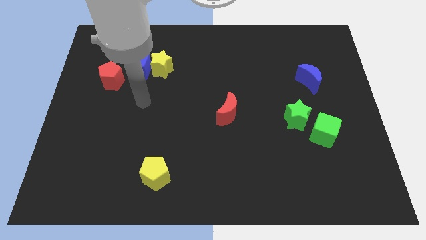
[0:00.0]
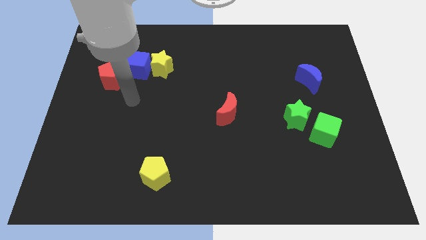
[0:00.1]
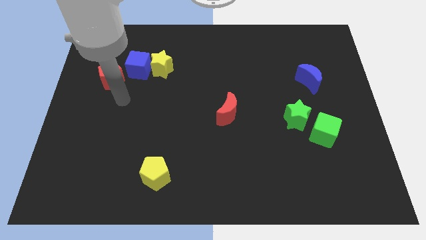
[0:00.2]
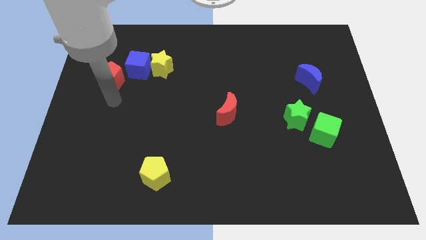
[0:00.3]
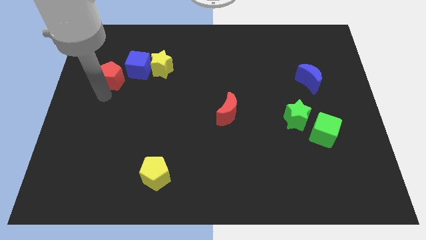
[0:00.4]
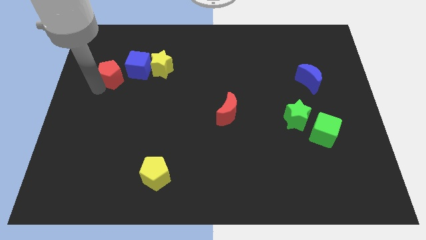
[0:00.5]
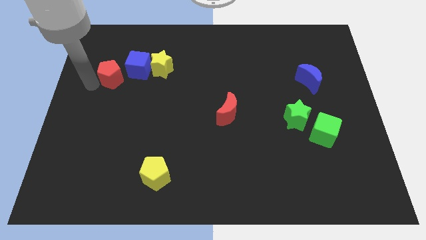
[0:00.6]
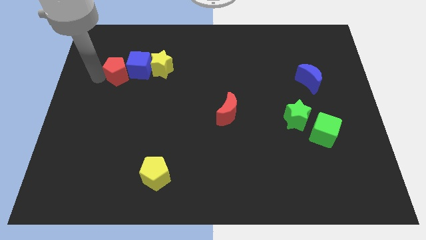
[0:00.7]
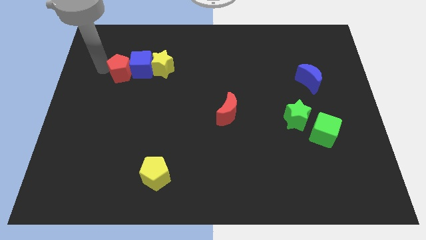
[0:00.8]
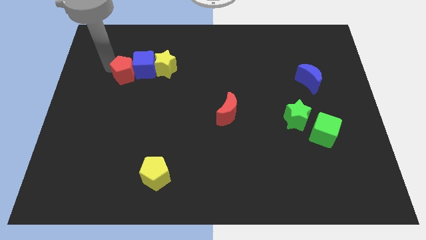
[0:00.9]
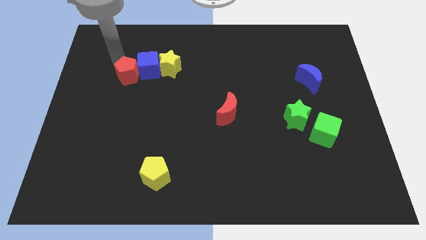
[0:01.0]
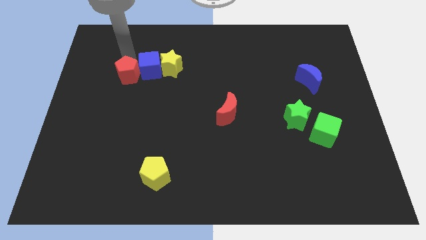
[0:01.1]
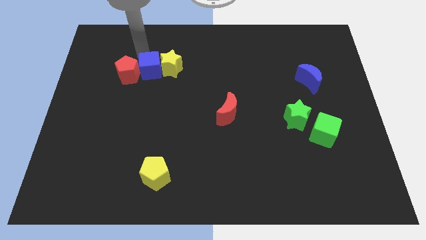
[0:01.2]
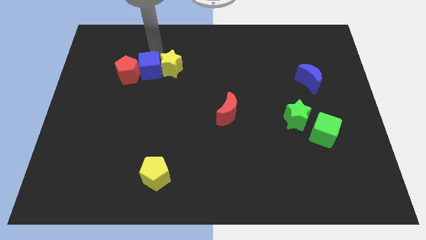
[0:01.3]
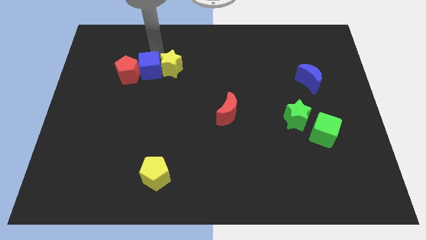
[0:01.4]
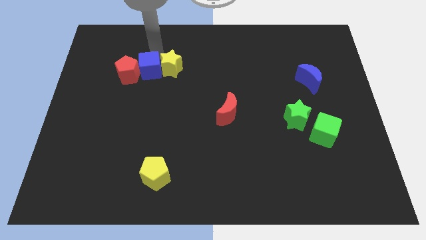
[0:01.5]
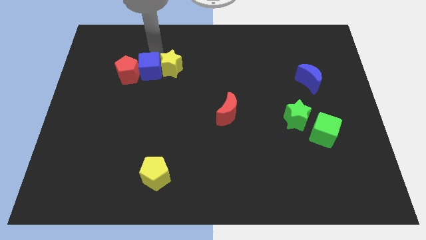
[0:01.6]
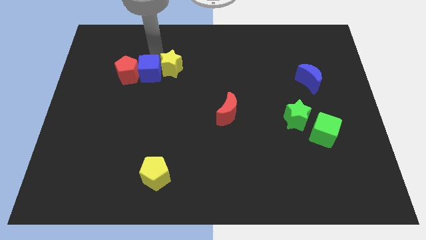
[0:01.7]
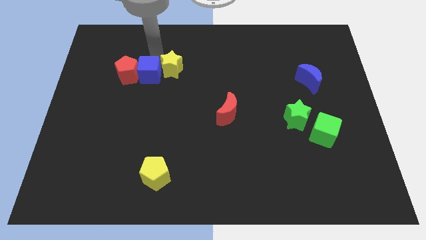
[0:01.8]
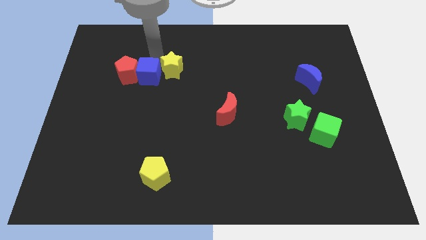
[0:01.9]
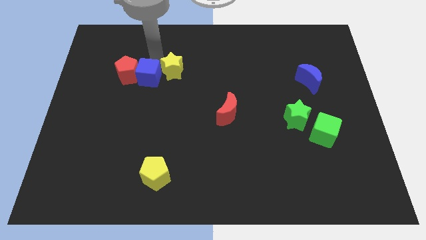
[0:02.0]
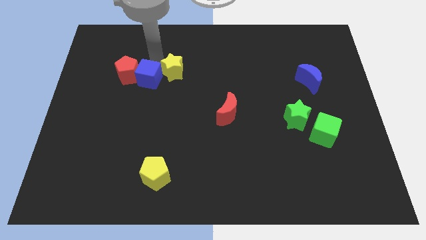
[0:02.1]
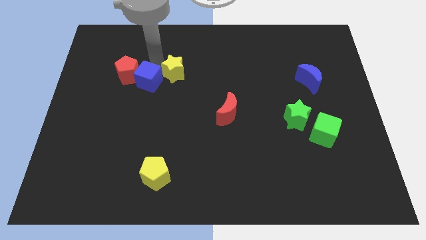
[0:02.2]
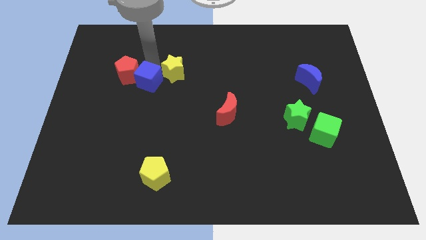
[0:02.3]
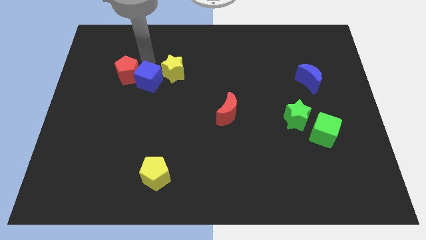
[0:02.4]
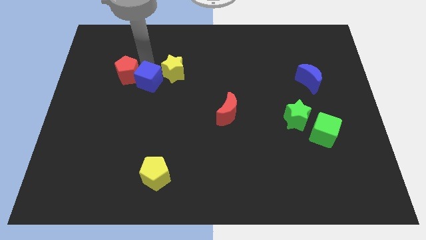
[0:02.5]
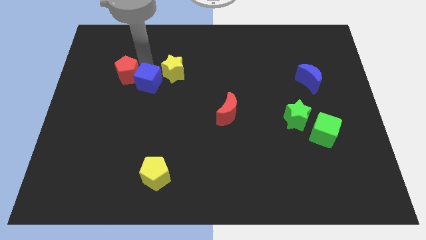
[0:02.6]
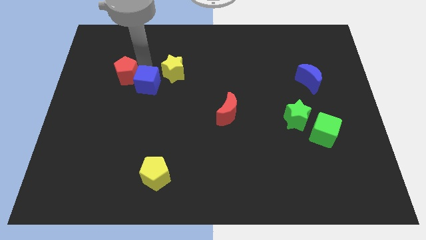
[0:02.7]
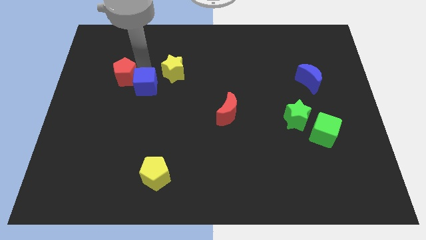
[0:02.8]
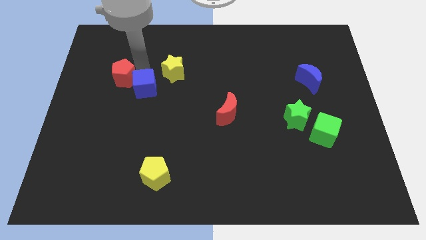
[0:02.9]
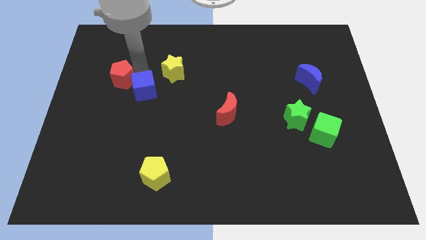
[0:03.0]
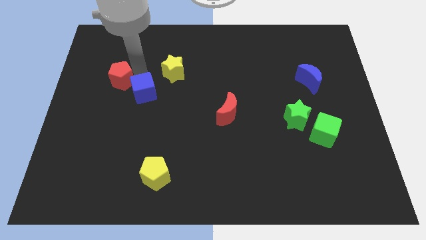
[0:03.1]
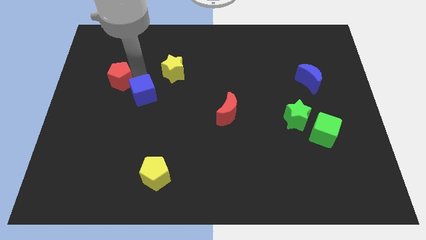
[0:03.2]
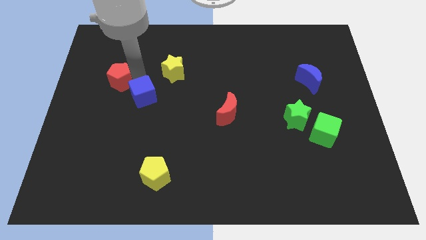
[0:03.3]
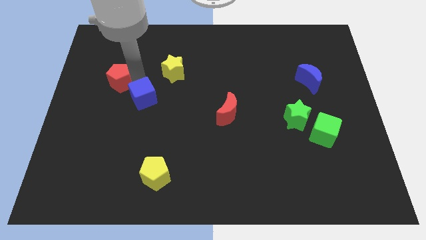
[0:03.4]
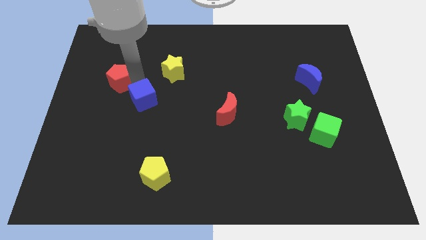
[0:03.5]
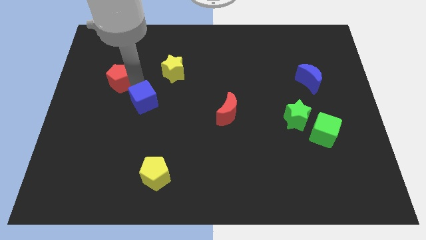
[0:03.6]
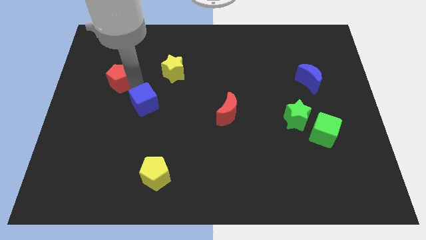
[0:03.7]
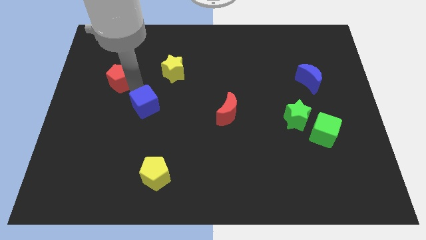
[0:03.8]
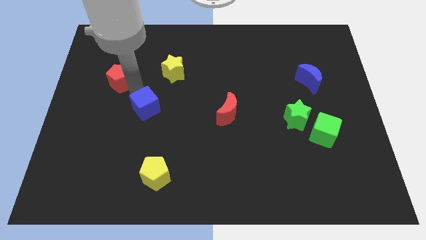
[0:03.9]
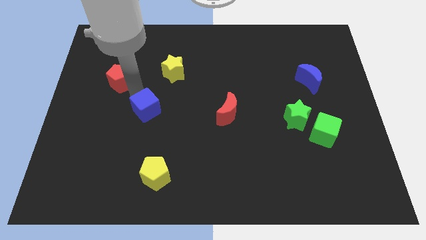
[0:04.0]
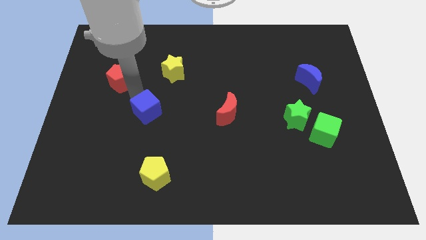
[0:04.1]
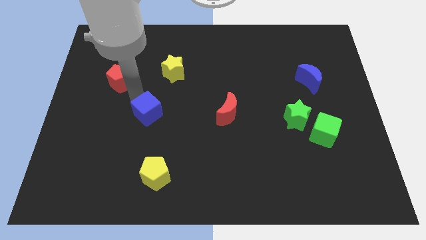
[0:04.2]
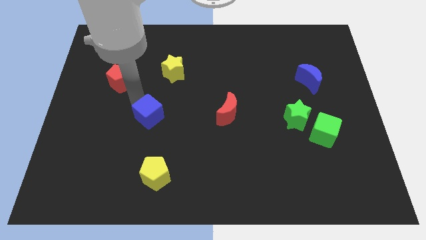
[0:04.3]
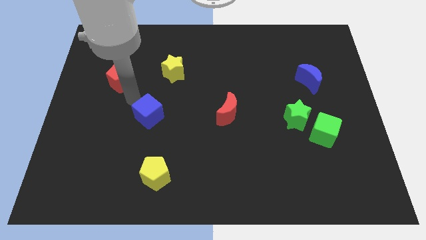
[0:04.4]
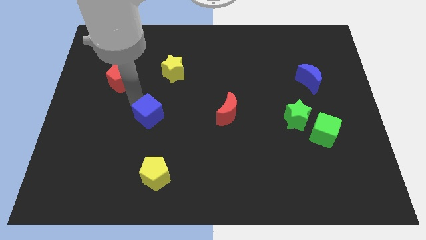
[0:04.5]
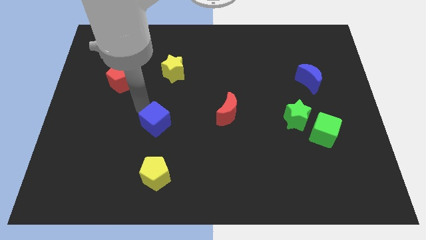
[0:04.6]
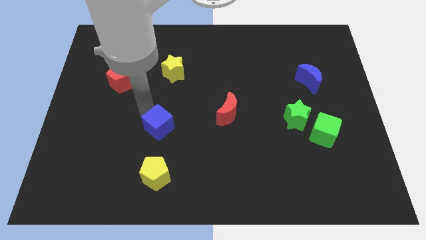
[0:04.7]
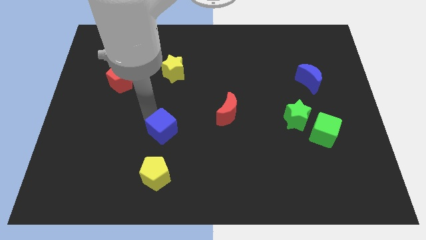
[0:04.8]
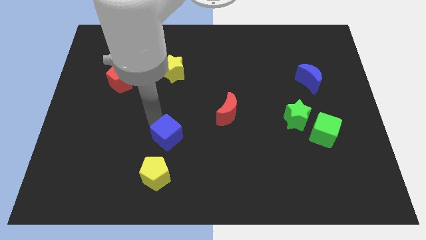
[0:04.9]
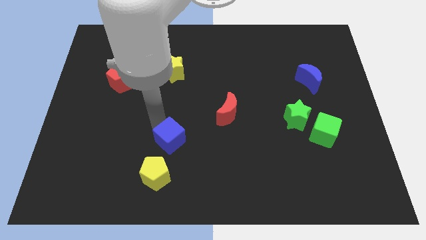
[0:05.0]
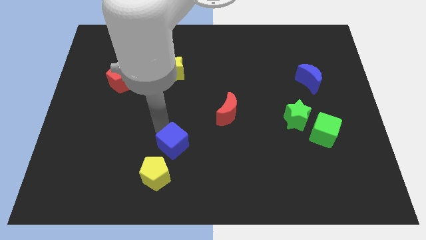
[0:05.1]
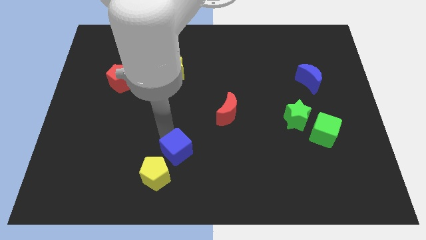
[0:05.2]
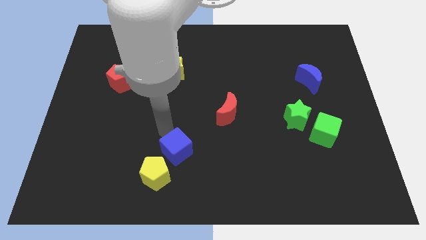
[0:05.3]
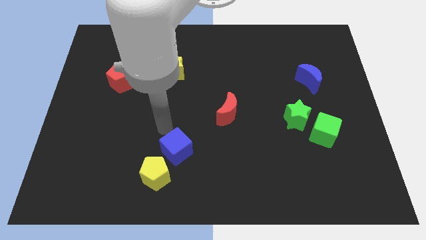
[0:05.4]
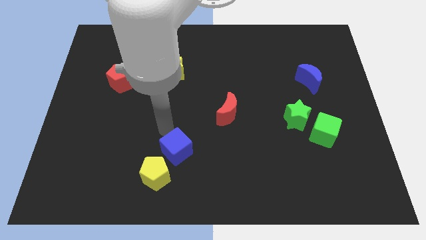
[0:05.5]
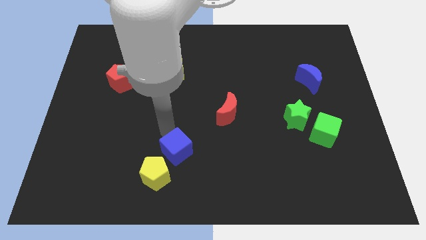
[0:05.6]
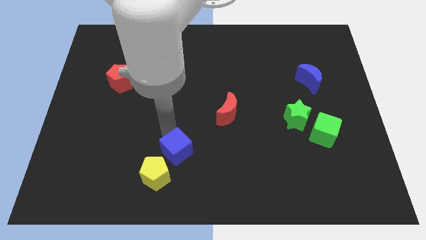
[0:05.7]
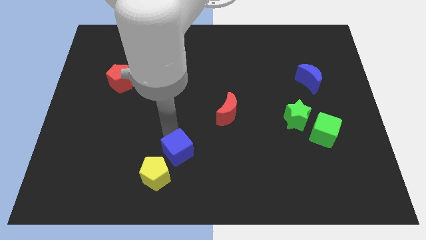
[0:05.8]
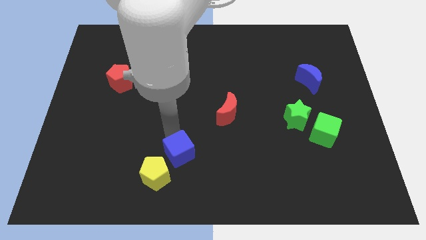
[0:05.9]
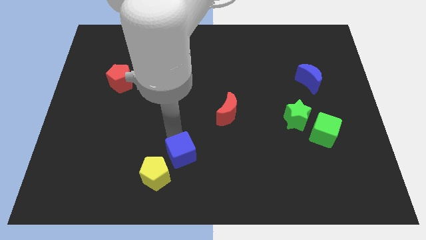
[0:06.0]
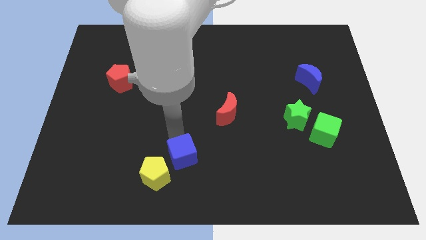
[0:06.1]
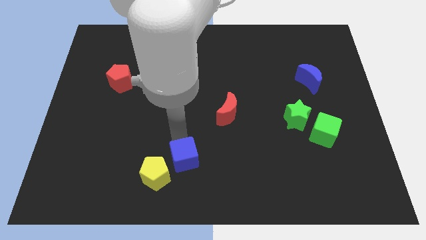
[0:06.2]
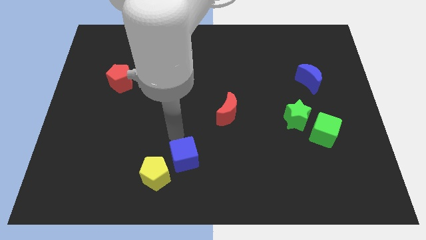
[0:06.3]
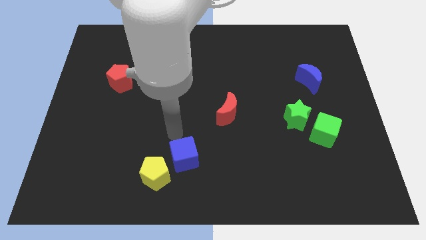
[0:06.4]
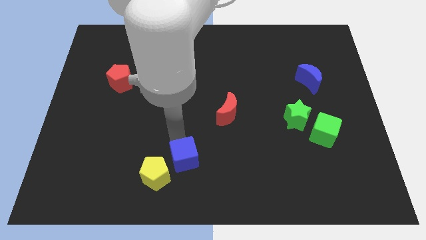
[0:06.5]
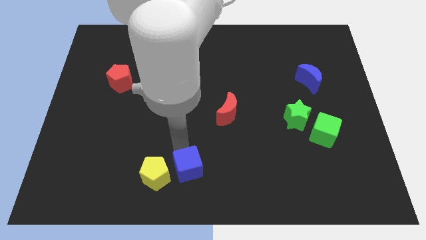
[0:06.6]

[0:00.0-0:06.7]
put the blue cube to the bottom side
